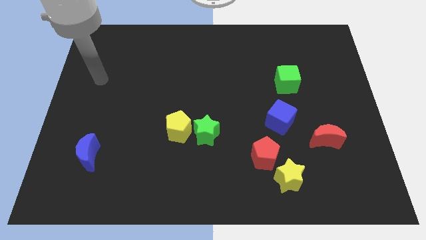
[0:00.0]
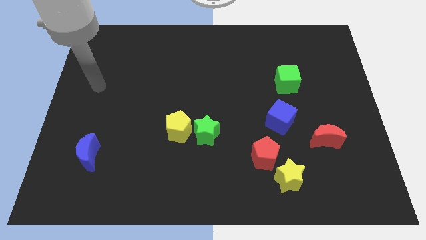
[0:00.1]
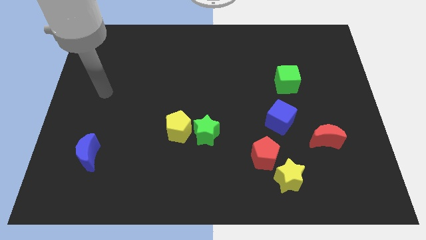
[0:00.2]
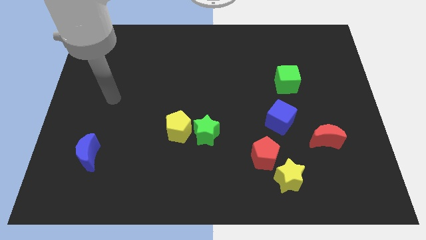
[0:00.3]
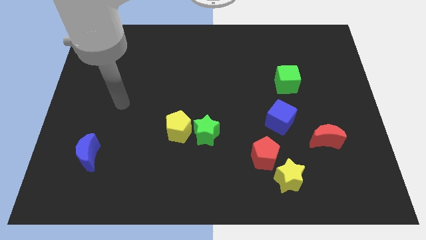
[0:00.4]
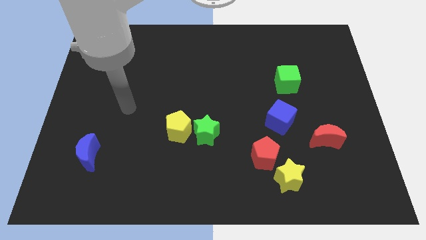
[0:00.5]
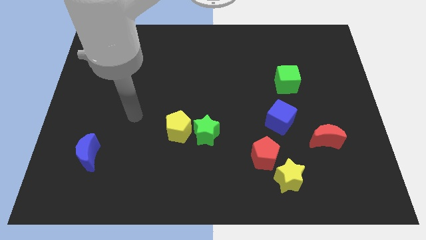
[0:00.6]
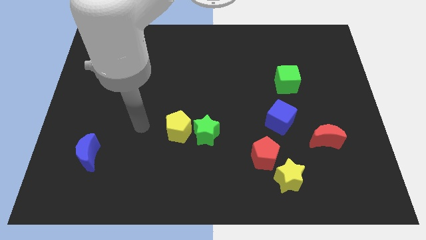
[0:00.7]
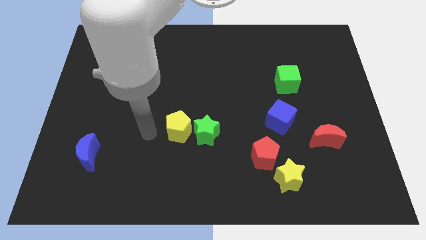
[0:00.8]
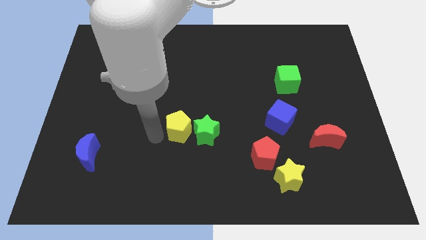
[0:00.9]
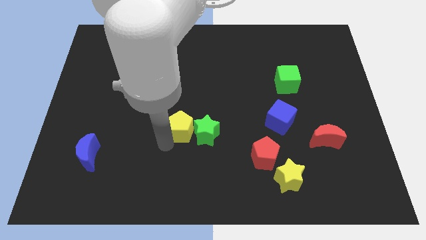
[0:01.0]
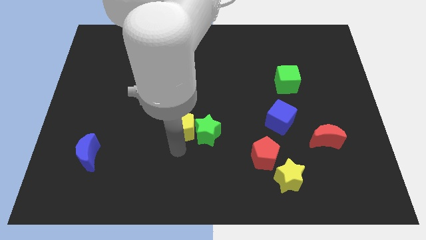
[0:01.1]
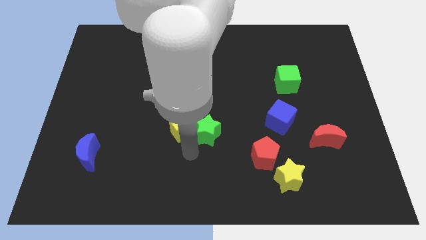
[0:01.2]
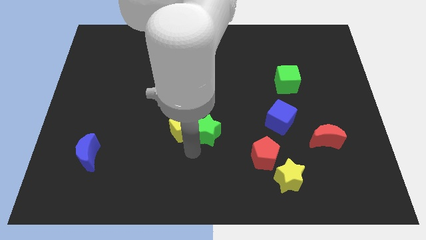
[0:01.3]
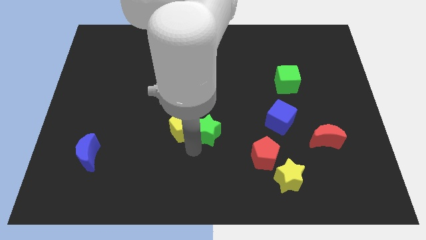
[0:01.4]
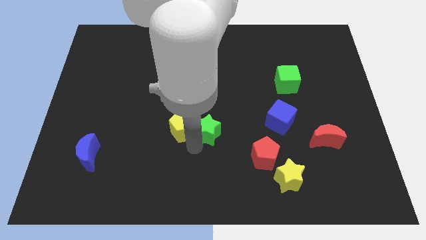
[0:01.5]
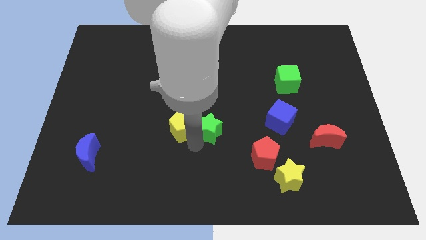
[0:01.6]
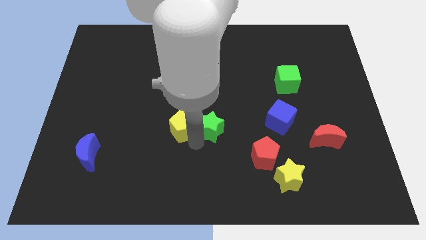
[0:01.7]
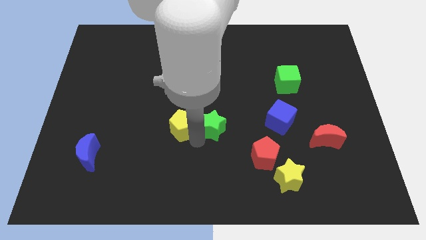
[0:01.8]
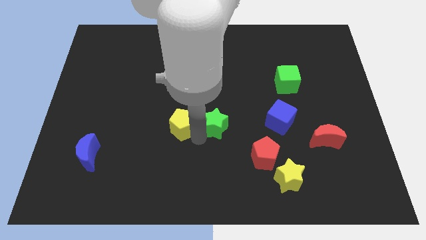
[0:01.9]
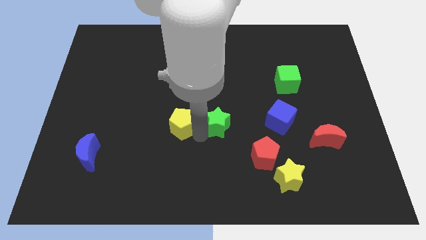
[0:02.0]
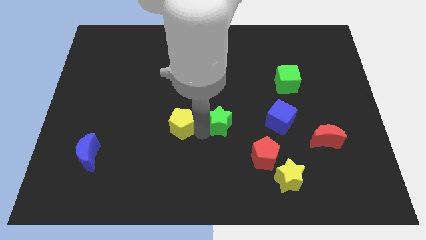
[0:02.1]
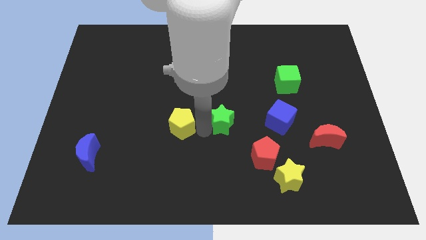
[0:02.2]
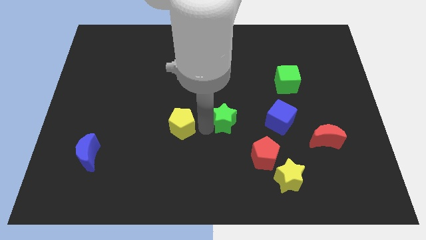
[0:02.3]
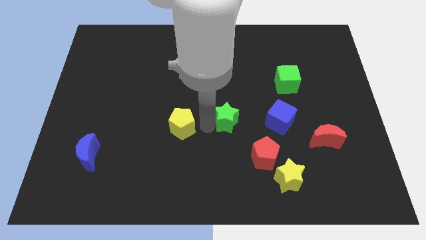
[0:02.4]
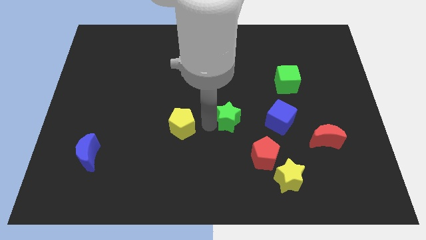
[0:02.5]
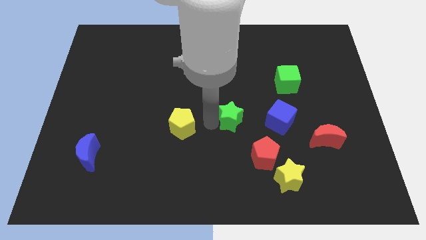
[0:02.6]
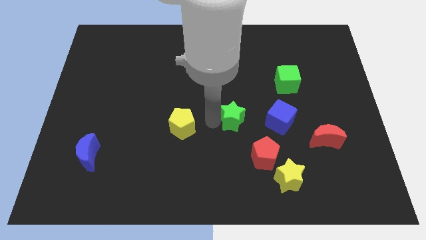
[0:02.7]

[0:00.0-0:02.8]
slide the green star upwards and right a little bit

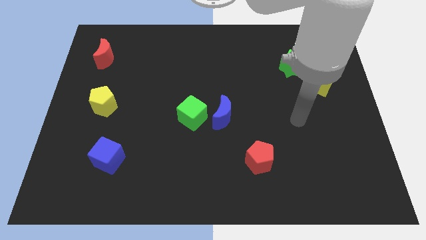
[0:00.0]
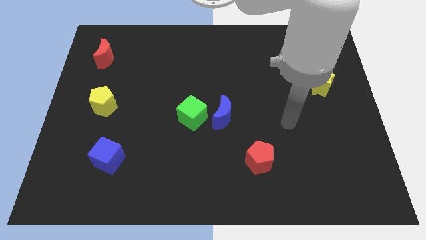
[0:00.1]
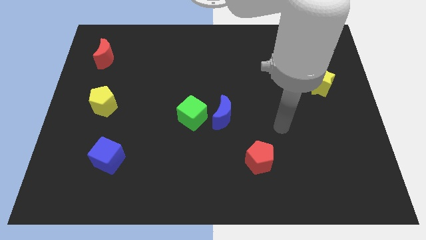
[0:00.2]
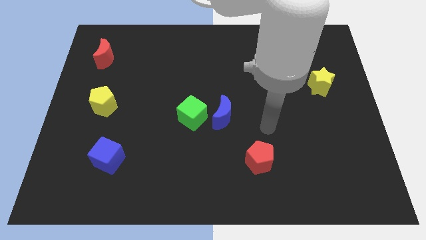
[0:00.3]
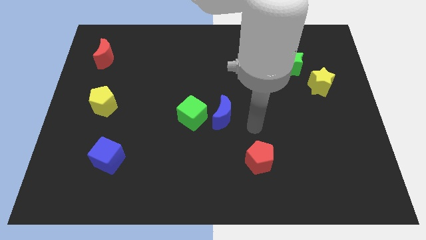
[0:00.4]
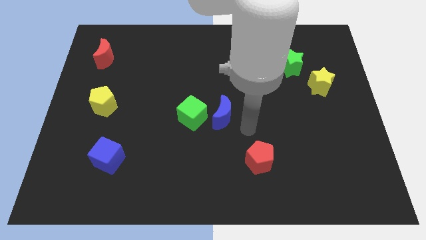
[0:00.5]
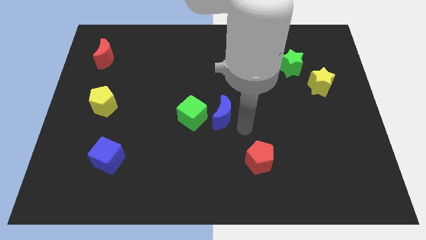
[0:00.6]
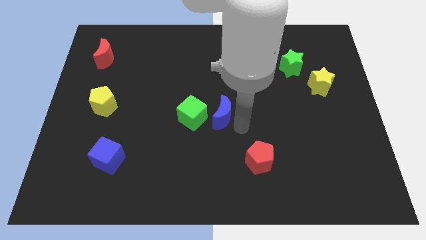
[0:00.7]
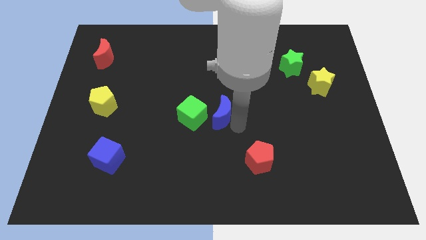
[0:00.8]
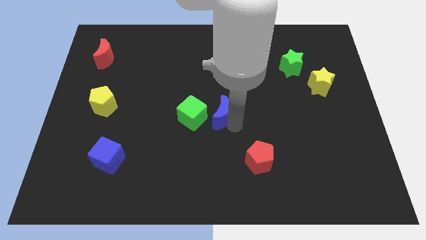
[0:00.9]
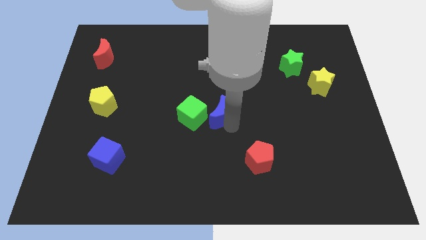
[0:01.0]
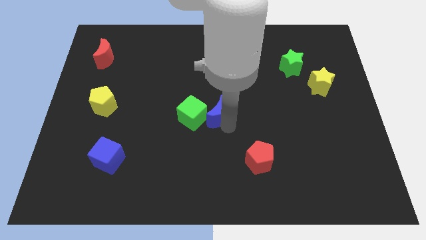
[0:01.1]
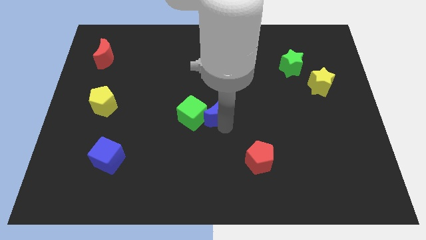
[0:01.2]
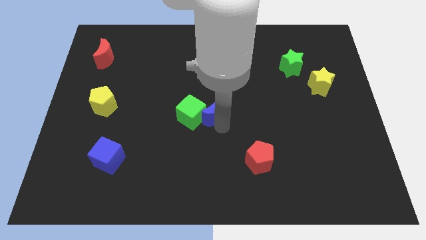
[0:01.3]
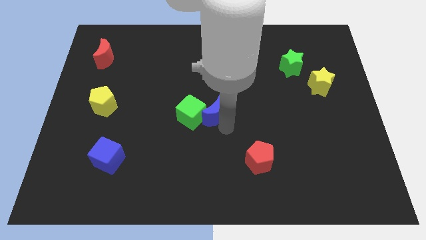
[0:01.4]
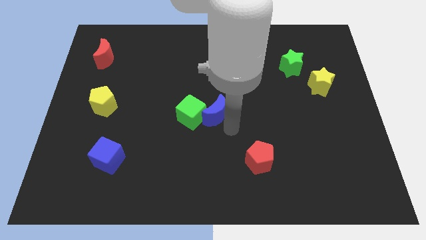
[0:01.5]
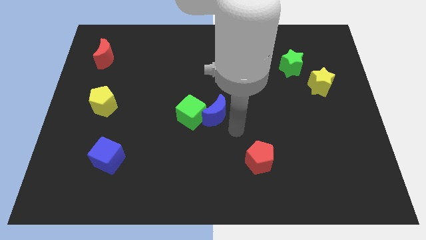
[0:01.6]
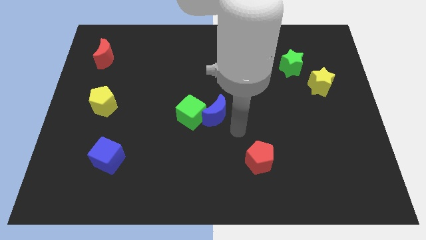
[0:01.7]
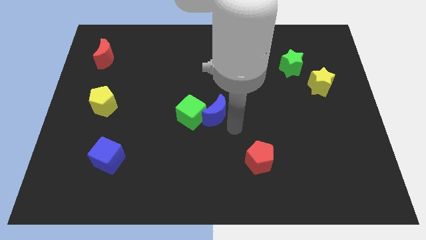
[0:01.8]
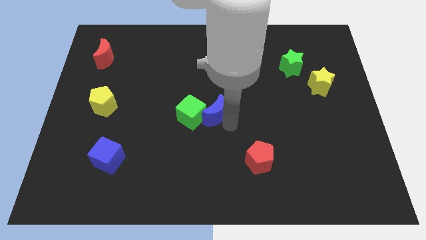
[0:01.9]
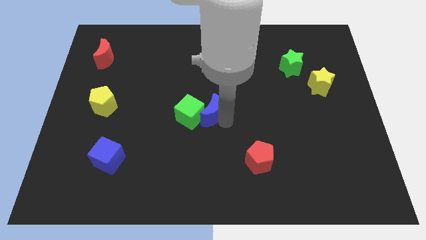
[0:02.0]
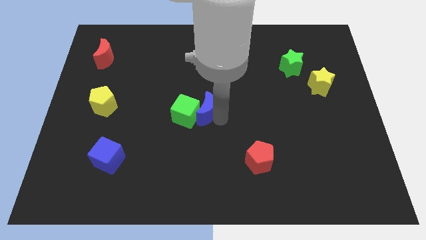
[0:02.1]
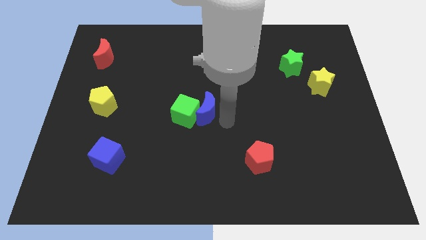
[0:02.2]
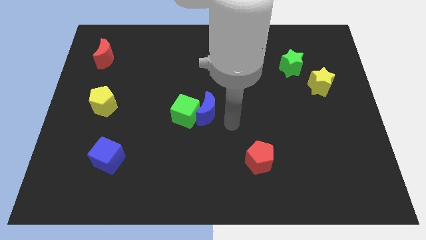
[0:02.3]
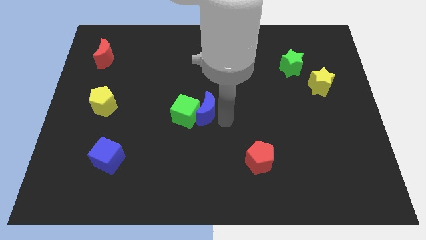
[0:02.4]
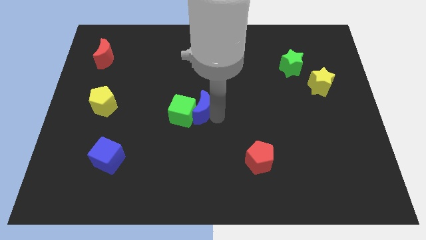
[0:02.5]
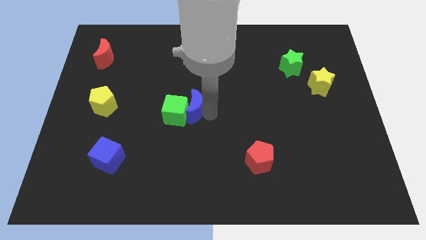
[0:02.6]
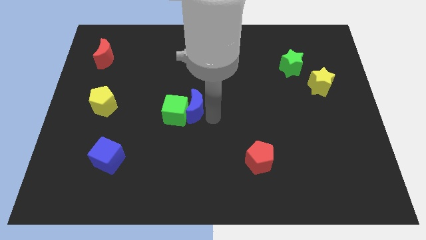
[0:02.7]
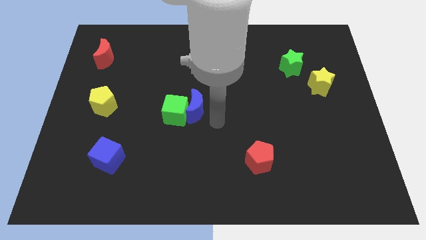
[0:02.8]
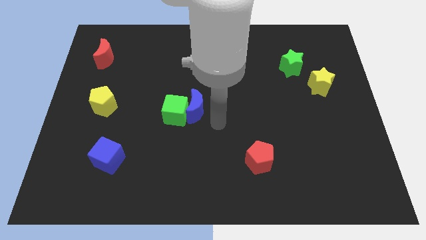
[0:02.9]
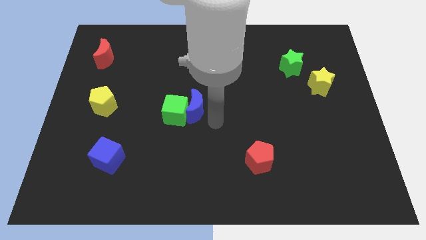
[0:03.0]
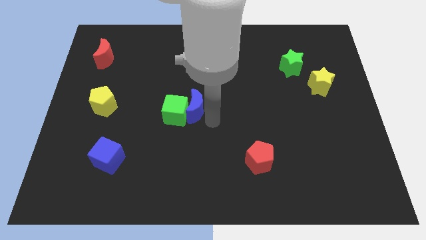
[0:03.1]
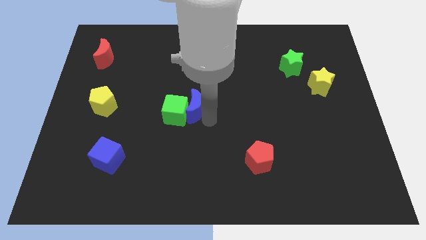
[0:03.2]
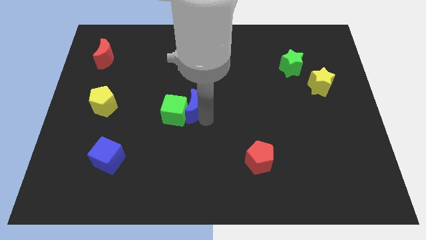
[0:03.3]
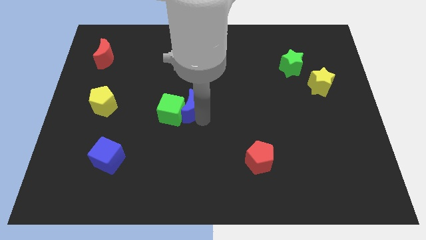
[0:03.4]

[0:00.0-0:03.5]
slightly move the blue moon to the left

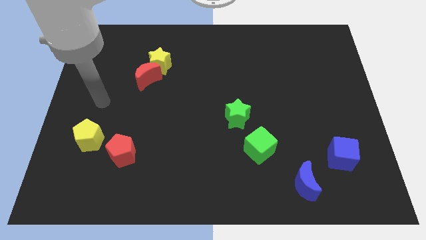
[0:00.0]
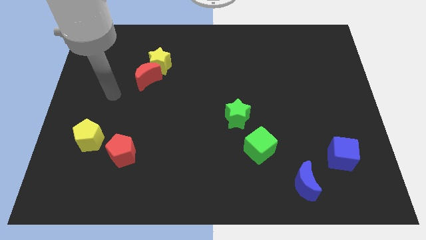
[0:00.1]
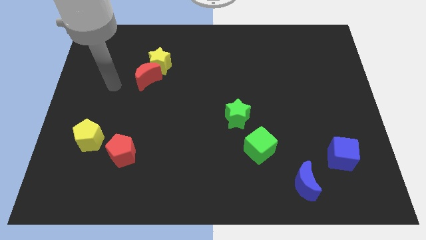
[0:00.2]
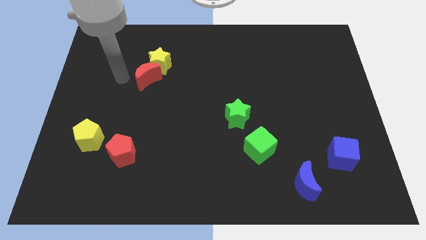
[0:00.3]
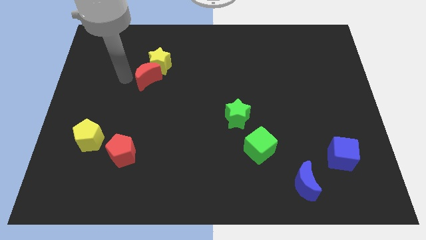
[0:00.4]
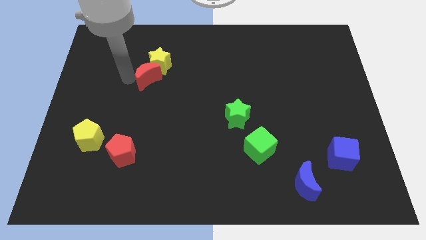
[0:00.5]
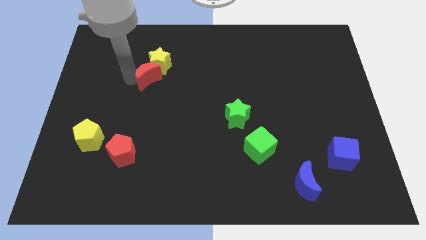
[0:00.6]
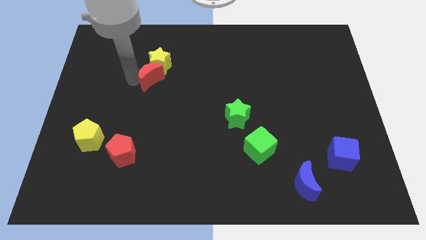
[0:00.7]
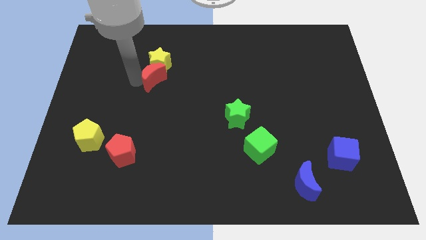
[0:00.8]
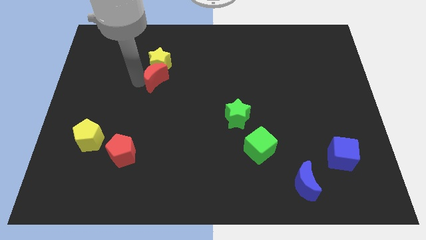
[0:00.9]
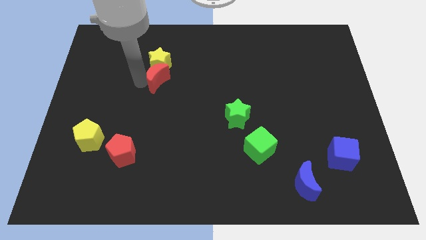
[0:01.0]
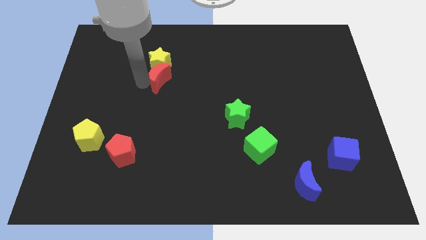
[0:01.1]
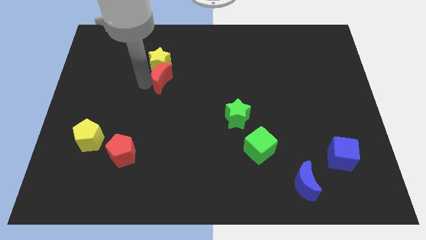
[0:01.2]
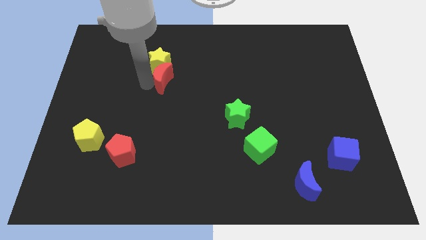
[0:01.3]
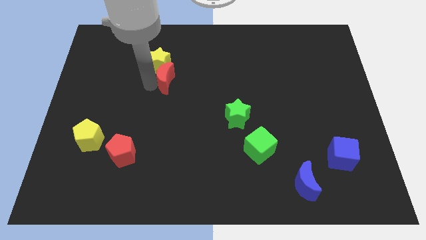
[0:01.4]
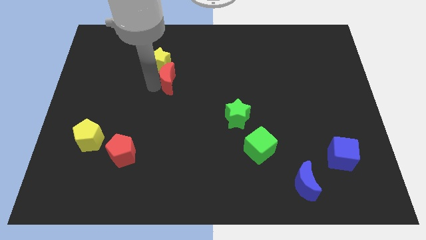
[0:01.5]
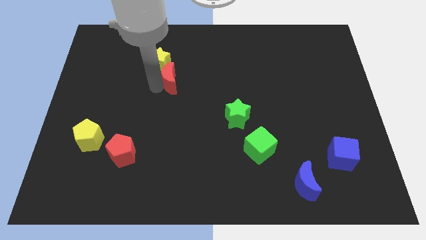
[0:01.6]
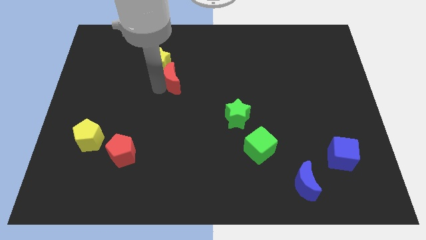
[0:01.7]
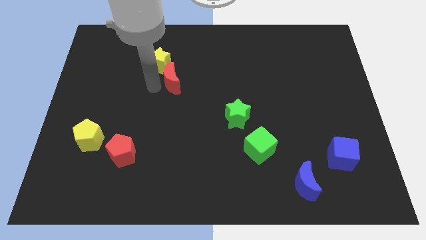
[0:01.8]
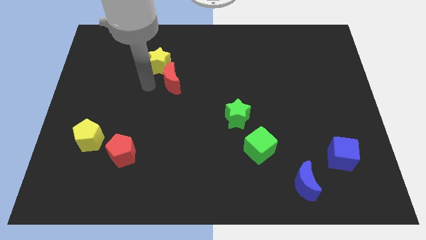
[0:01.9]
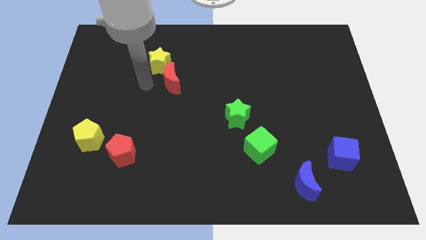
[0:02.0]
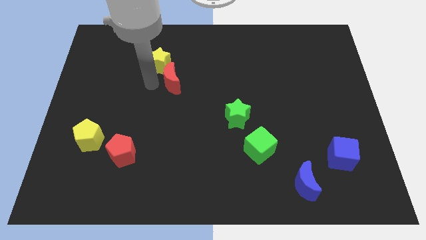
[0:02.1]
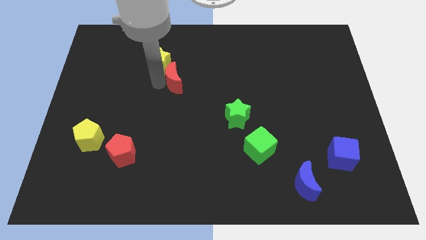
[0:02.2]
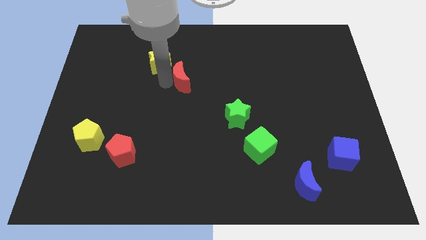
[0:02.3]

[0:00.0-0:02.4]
push the red moon right a little bit
